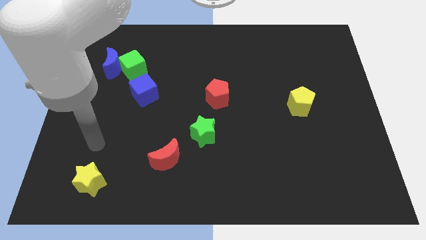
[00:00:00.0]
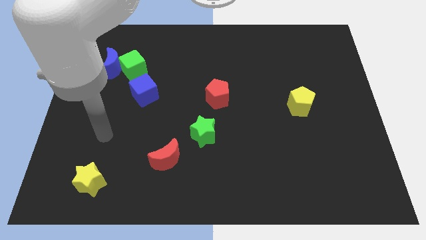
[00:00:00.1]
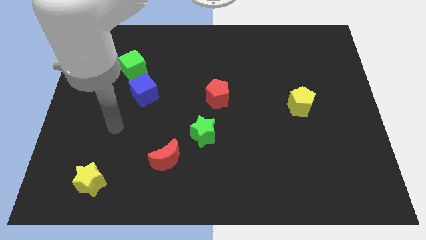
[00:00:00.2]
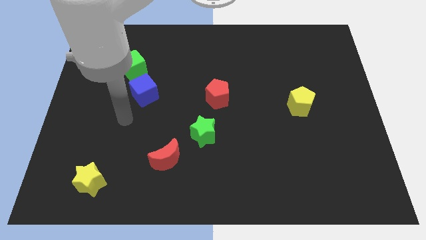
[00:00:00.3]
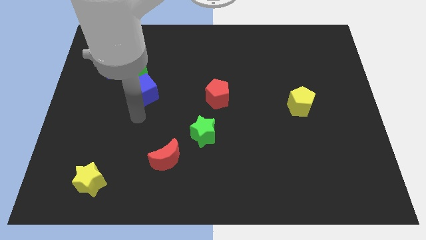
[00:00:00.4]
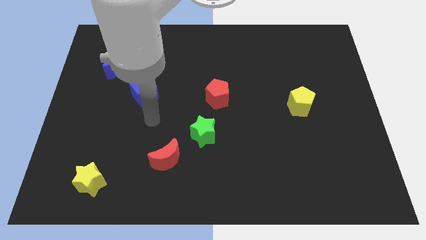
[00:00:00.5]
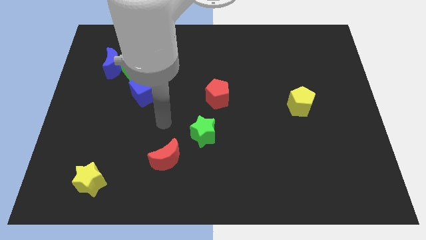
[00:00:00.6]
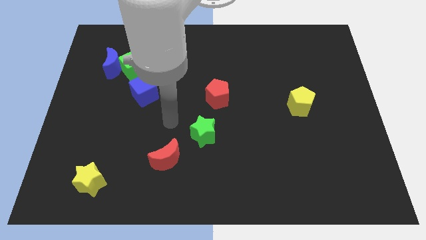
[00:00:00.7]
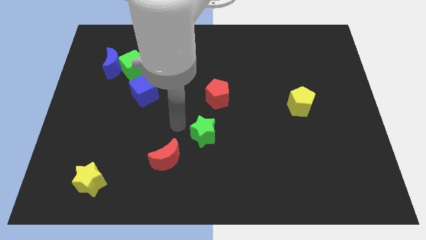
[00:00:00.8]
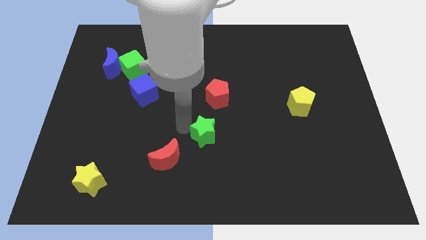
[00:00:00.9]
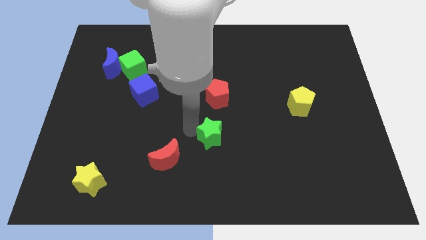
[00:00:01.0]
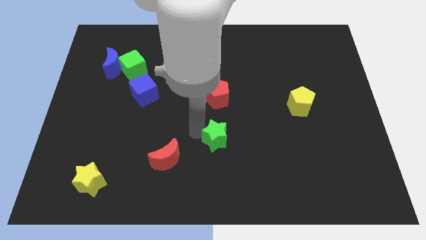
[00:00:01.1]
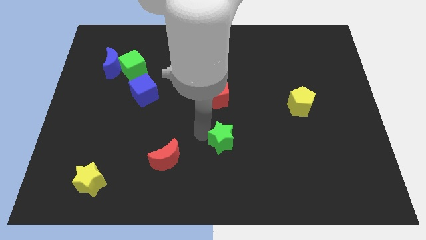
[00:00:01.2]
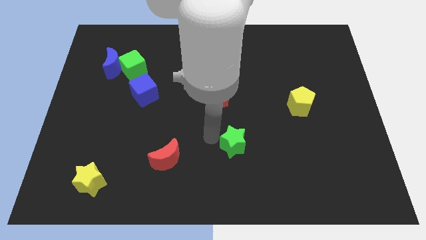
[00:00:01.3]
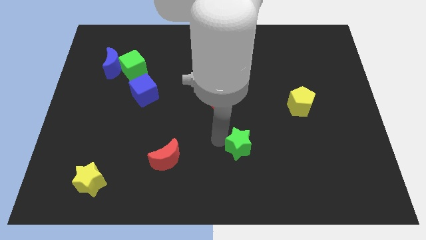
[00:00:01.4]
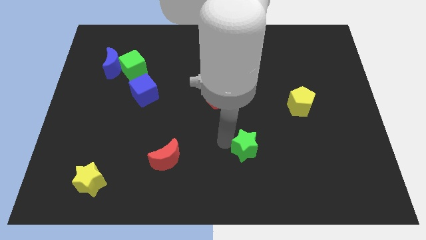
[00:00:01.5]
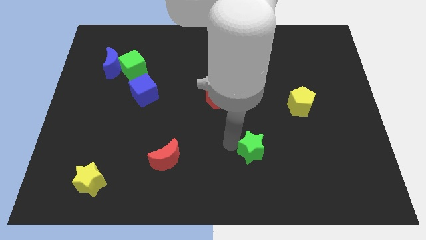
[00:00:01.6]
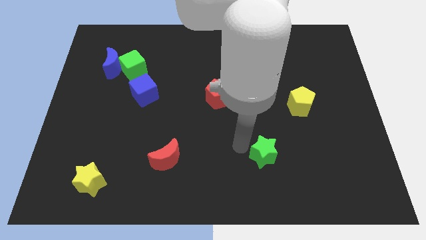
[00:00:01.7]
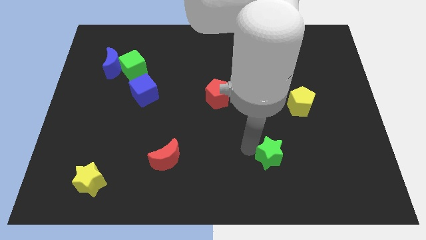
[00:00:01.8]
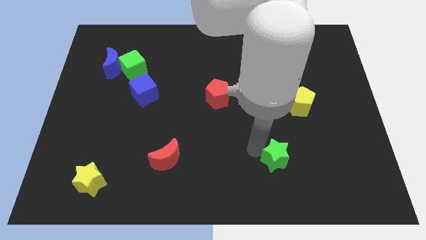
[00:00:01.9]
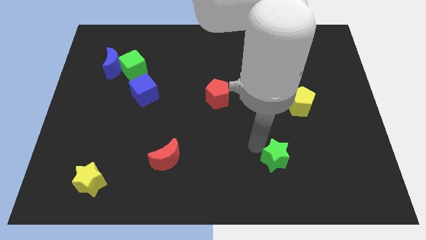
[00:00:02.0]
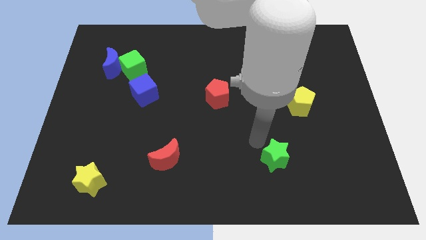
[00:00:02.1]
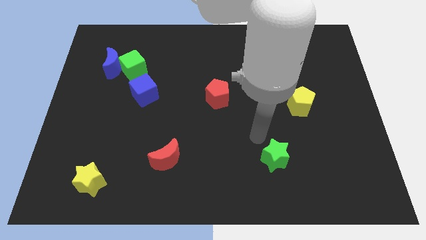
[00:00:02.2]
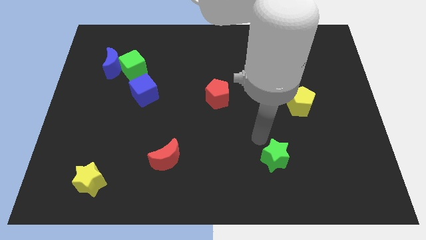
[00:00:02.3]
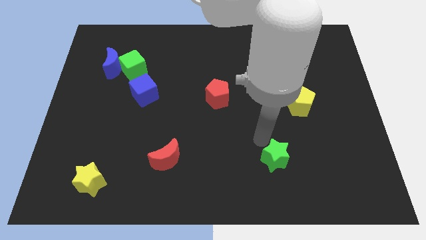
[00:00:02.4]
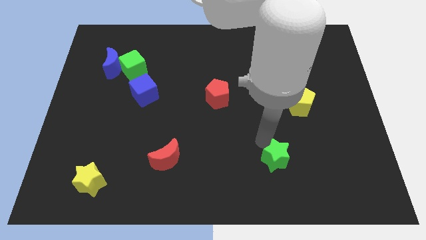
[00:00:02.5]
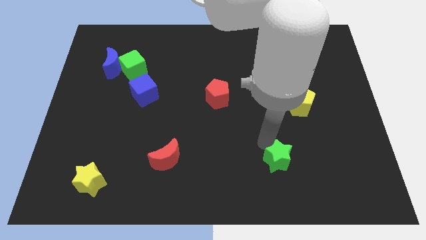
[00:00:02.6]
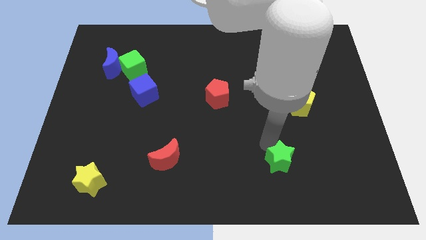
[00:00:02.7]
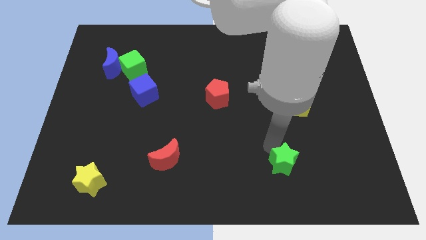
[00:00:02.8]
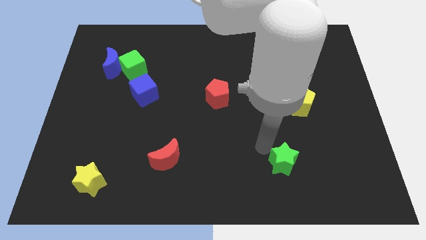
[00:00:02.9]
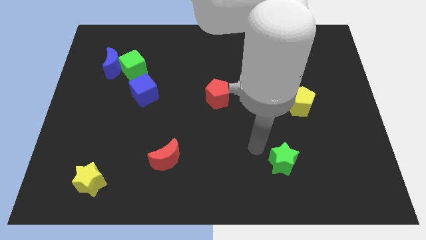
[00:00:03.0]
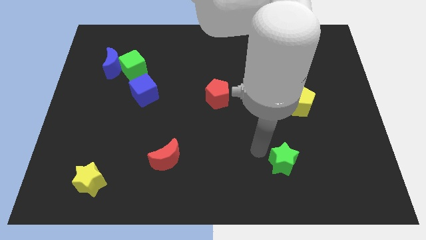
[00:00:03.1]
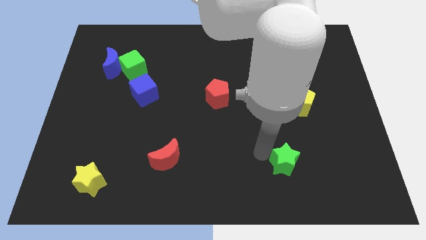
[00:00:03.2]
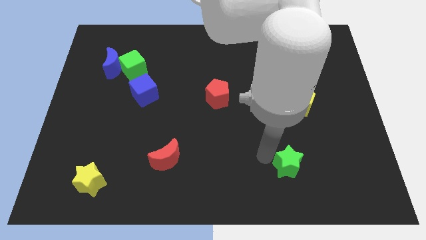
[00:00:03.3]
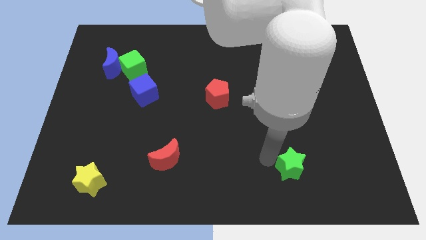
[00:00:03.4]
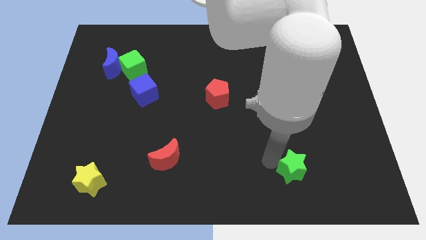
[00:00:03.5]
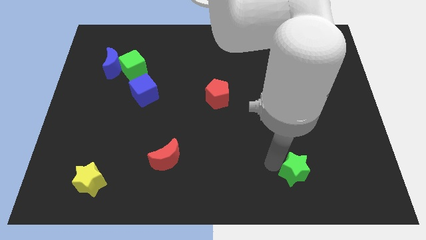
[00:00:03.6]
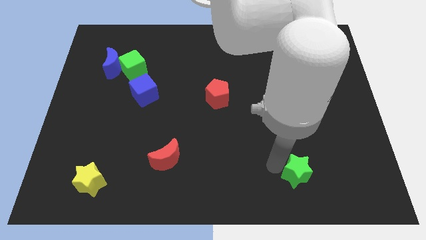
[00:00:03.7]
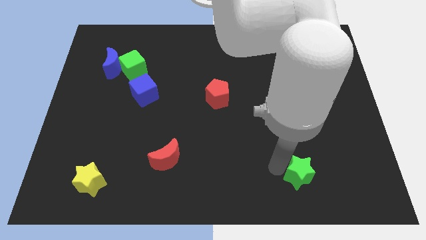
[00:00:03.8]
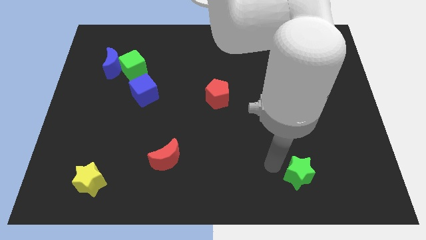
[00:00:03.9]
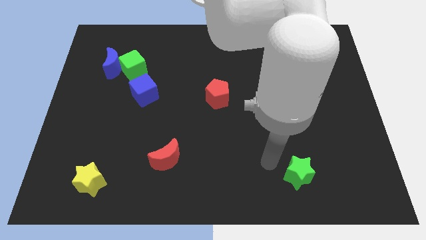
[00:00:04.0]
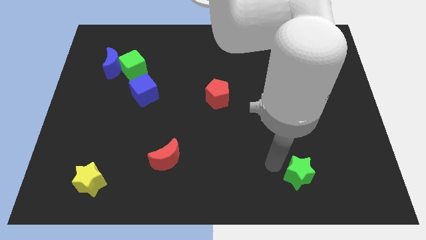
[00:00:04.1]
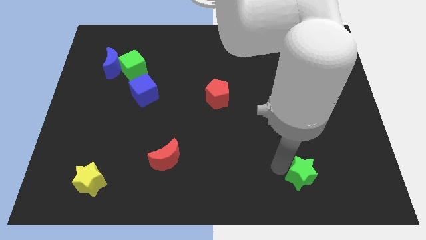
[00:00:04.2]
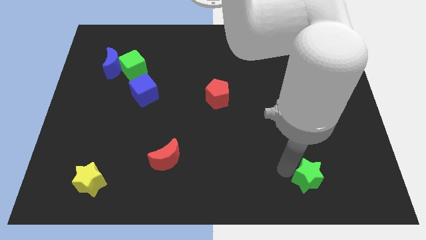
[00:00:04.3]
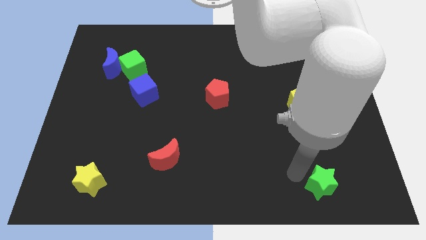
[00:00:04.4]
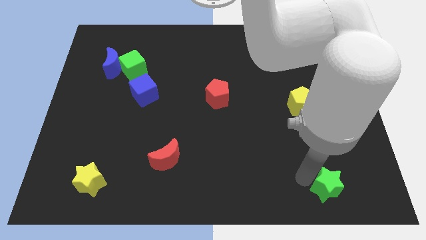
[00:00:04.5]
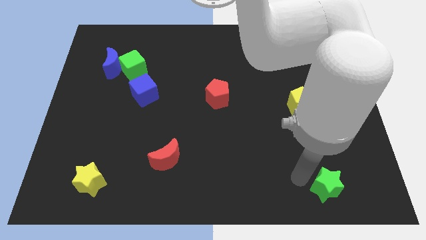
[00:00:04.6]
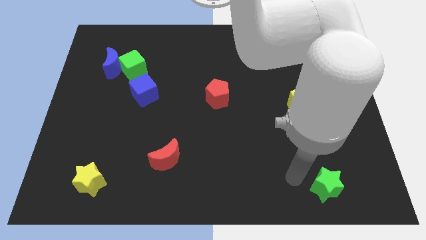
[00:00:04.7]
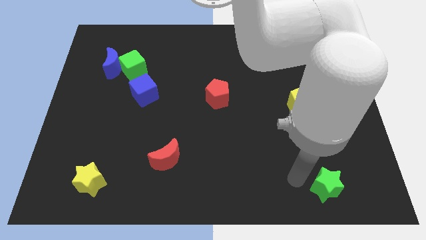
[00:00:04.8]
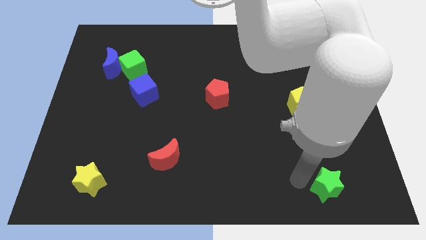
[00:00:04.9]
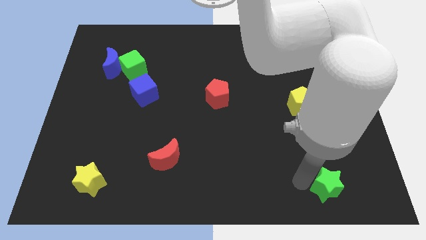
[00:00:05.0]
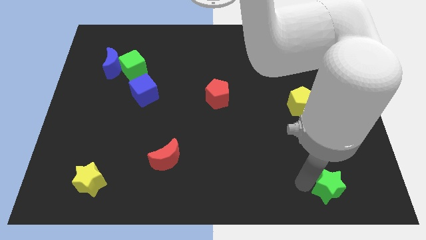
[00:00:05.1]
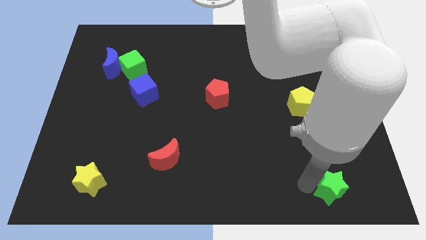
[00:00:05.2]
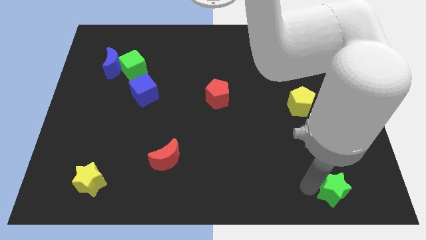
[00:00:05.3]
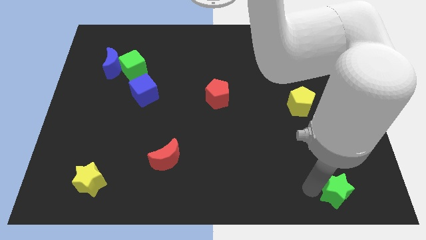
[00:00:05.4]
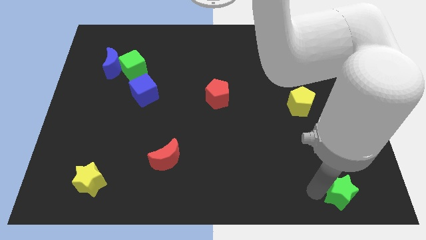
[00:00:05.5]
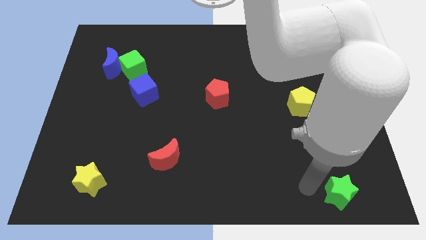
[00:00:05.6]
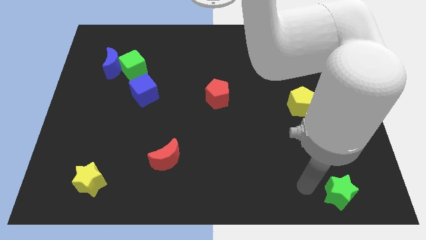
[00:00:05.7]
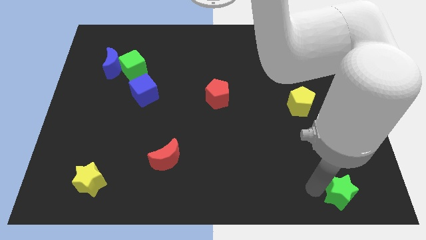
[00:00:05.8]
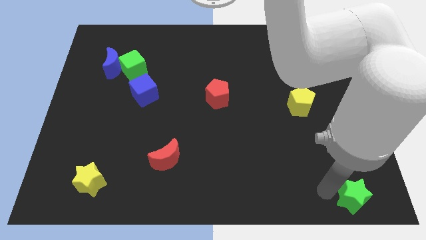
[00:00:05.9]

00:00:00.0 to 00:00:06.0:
move the green star to the lower right corner
